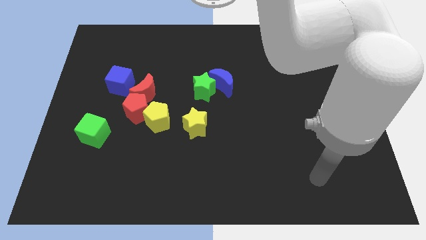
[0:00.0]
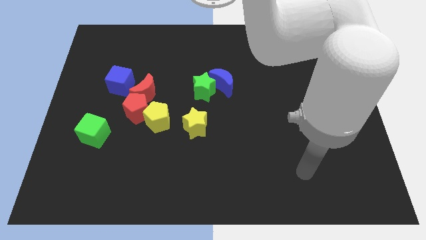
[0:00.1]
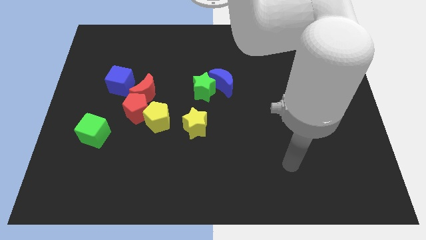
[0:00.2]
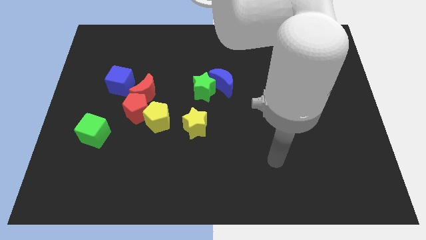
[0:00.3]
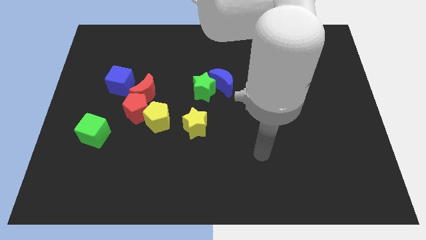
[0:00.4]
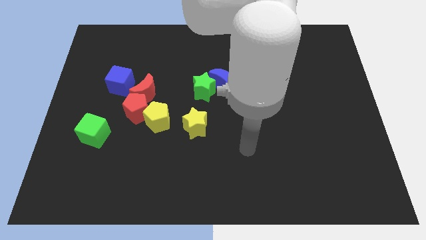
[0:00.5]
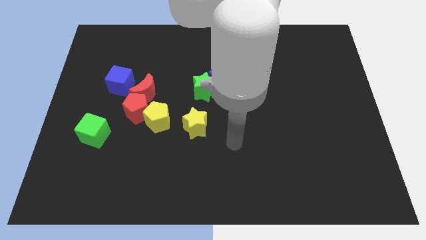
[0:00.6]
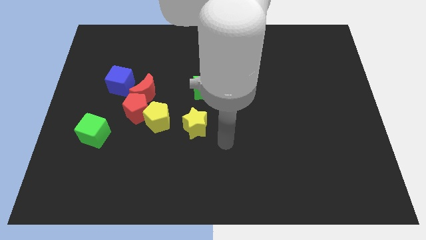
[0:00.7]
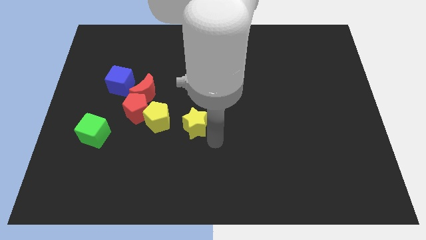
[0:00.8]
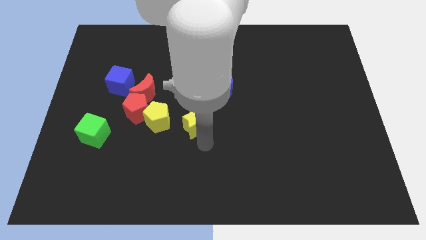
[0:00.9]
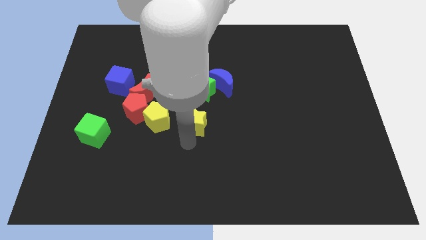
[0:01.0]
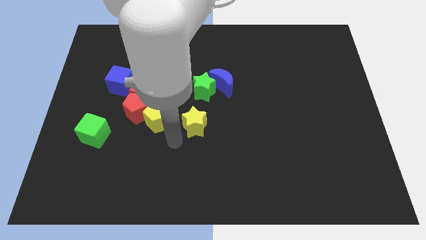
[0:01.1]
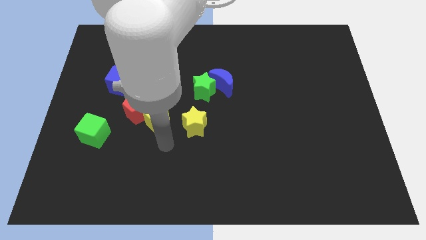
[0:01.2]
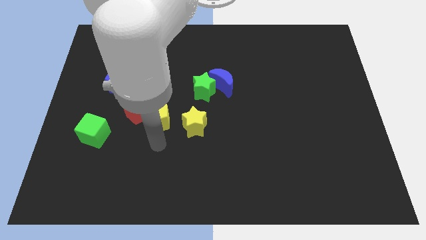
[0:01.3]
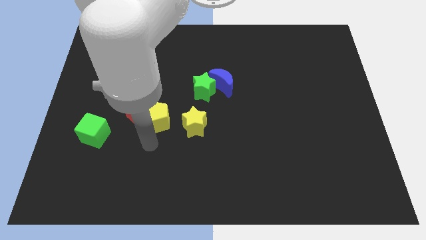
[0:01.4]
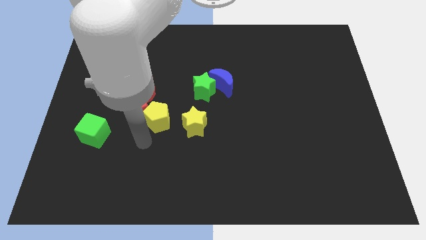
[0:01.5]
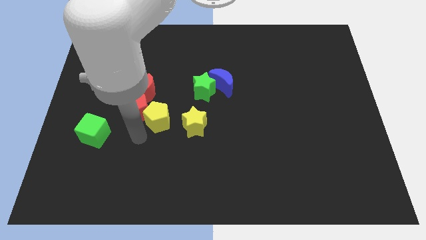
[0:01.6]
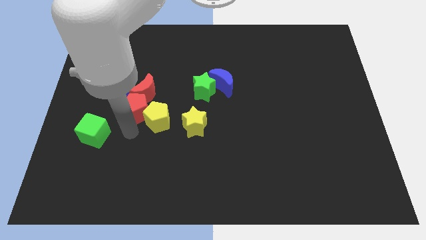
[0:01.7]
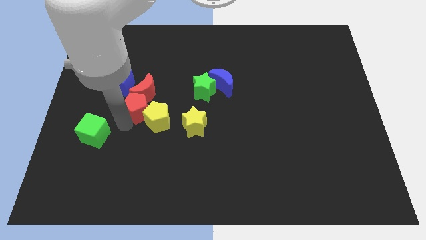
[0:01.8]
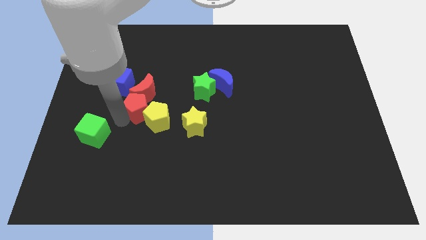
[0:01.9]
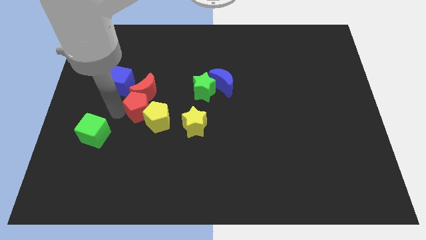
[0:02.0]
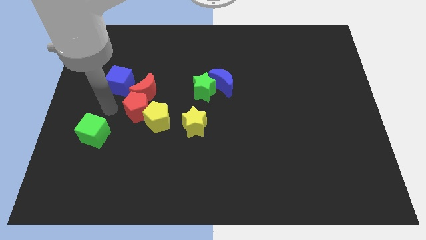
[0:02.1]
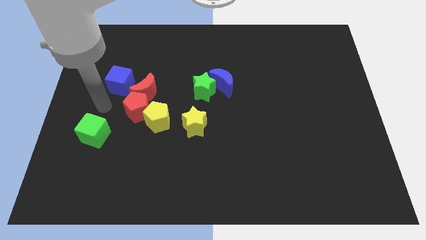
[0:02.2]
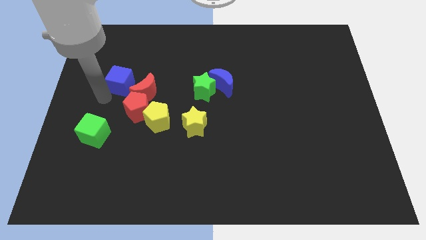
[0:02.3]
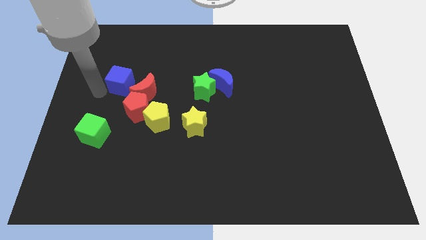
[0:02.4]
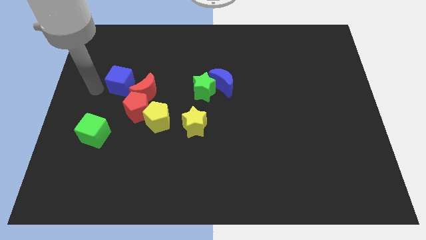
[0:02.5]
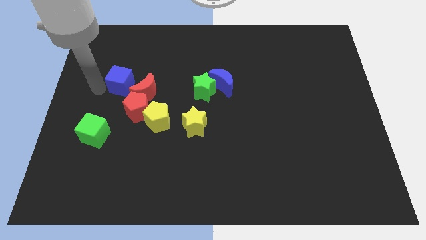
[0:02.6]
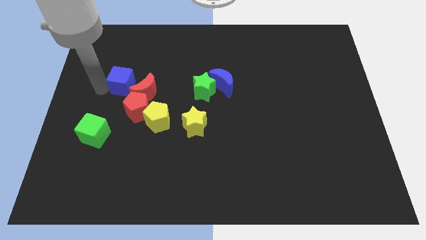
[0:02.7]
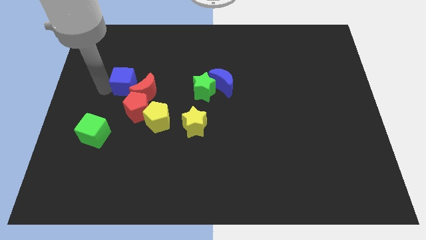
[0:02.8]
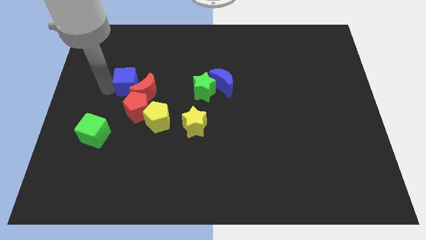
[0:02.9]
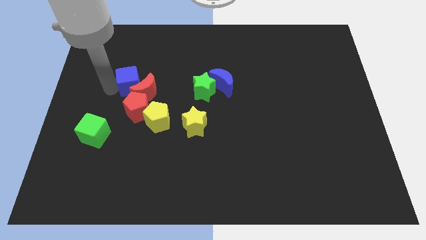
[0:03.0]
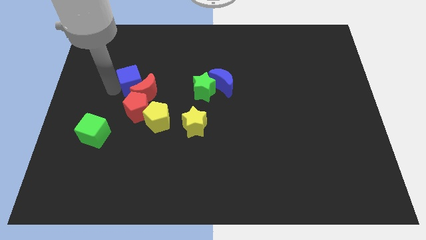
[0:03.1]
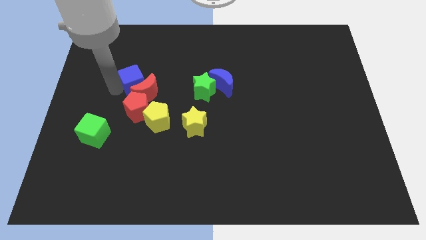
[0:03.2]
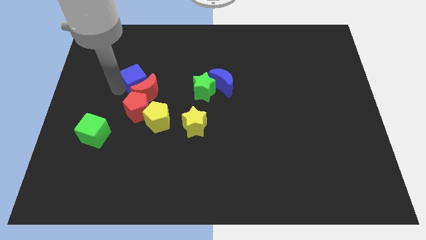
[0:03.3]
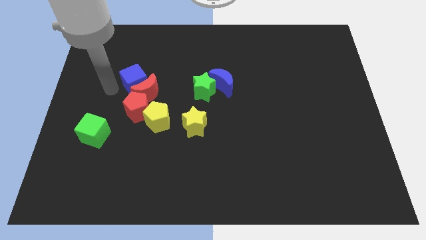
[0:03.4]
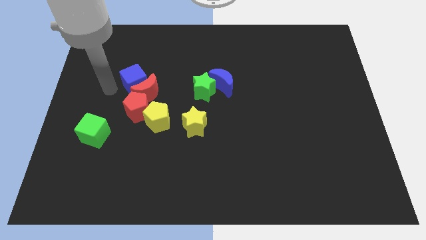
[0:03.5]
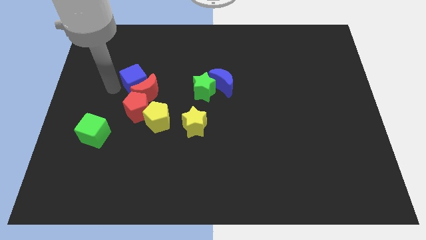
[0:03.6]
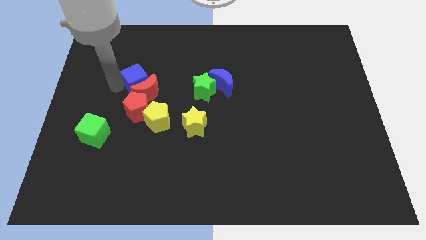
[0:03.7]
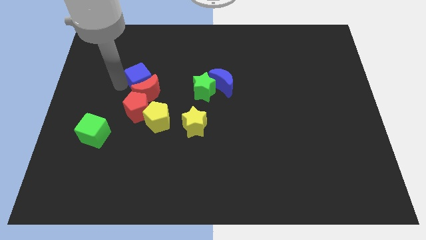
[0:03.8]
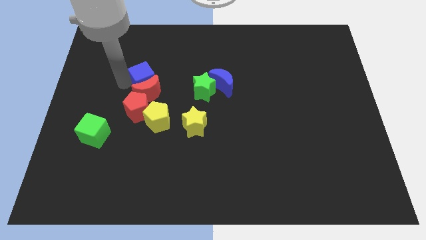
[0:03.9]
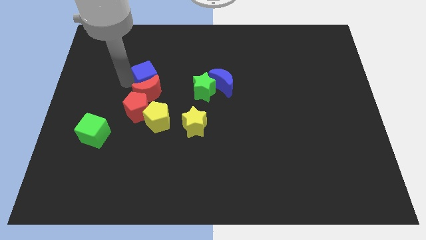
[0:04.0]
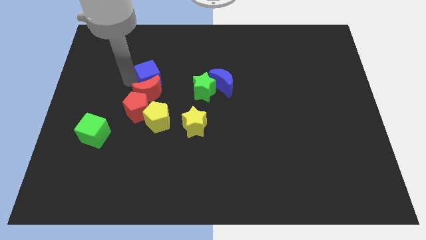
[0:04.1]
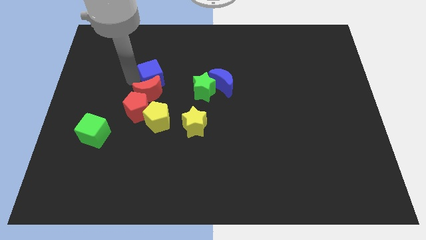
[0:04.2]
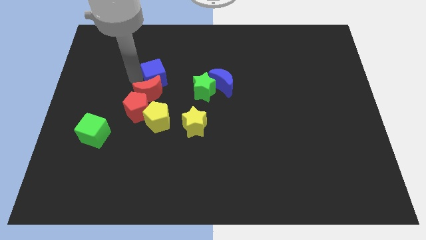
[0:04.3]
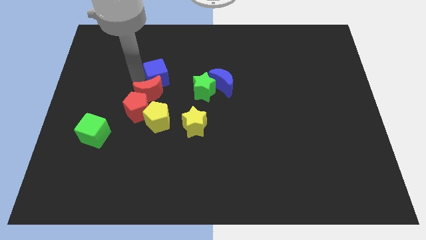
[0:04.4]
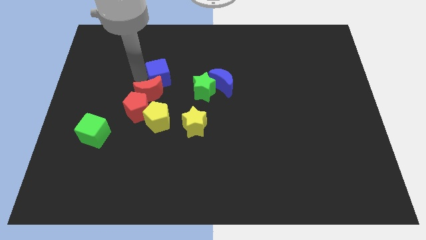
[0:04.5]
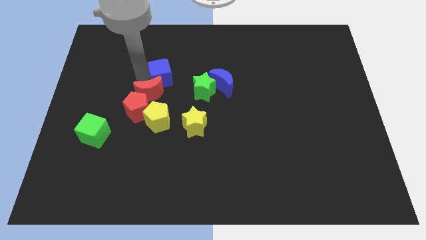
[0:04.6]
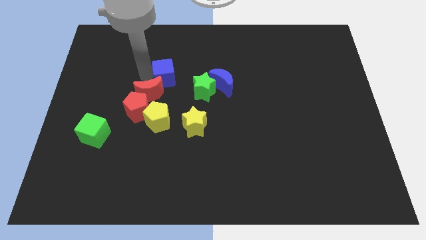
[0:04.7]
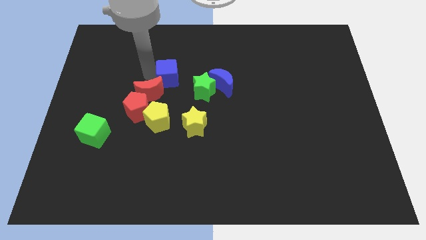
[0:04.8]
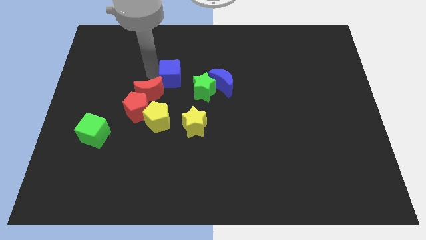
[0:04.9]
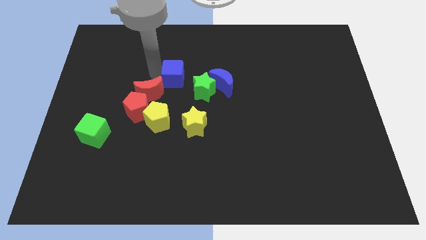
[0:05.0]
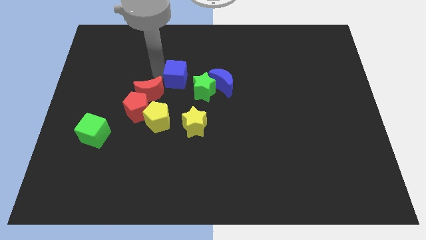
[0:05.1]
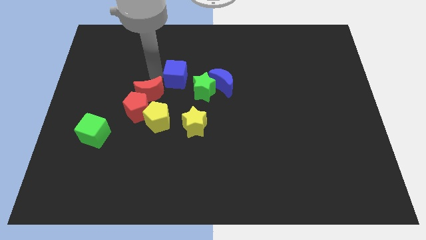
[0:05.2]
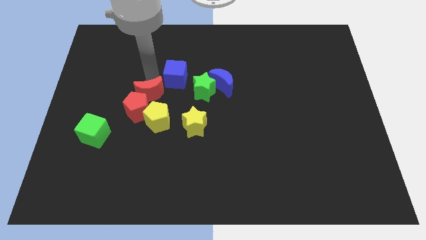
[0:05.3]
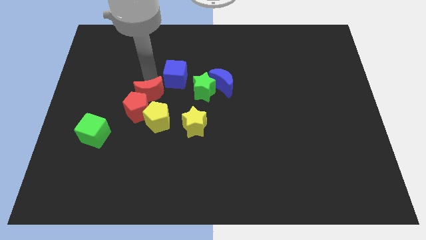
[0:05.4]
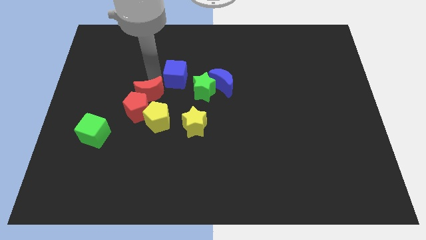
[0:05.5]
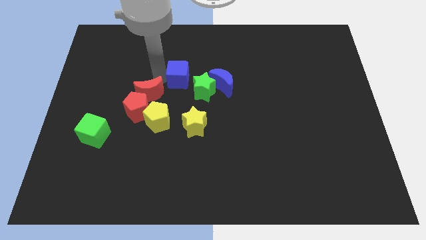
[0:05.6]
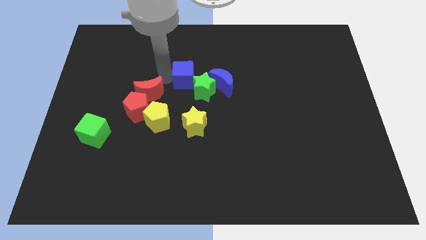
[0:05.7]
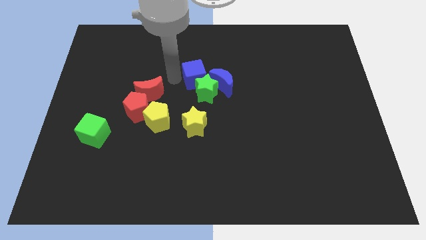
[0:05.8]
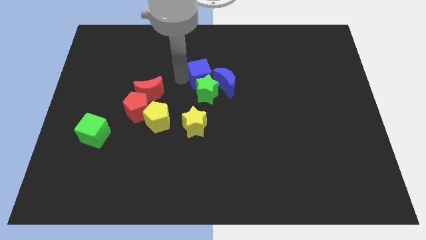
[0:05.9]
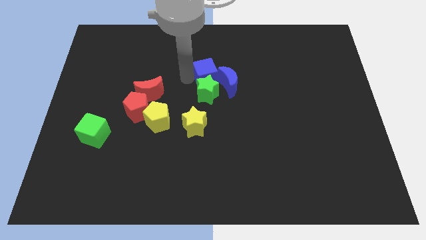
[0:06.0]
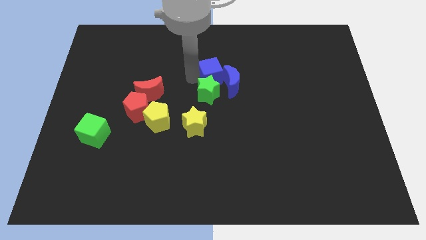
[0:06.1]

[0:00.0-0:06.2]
push the blue cube next to the blue moon

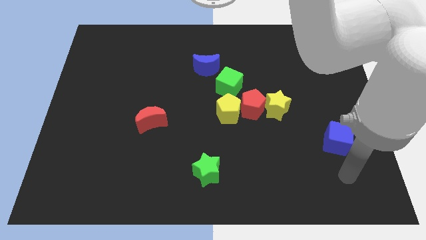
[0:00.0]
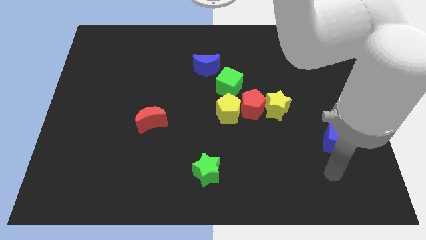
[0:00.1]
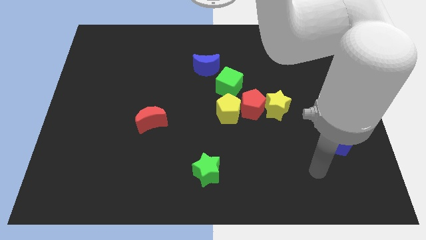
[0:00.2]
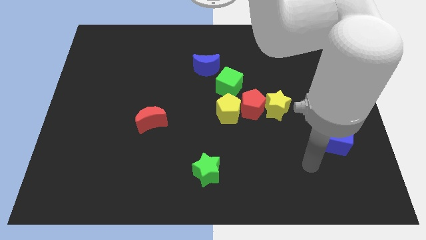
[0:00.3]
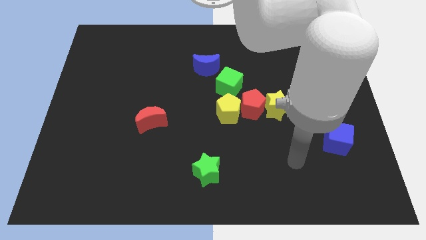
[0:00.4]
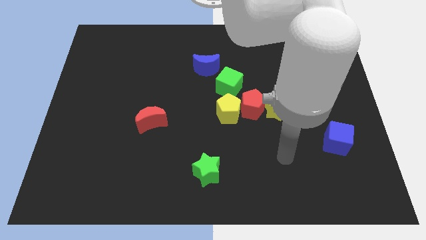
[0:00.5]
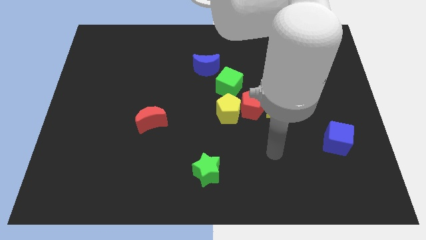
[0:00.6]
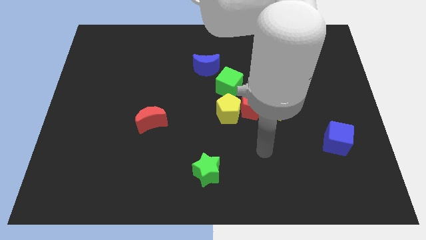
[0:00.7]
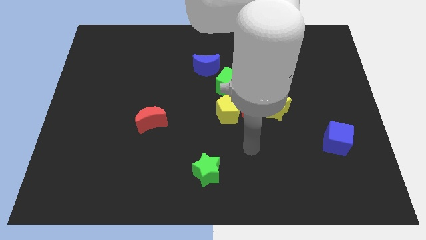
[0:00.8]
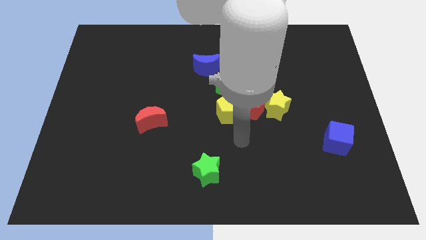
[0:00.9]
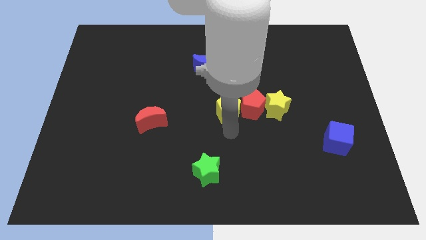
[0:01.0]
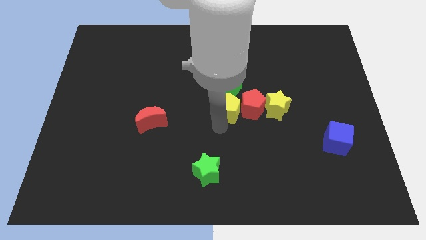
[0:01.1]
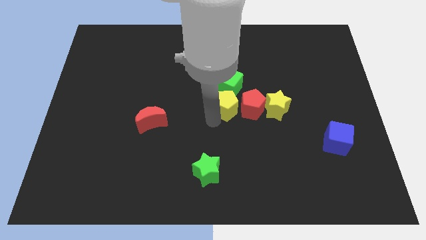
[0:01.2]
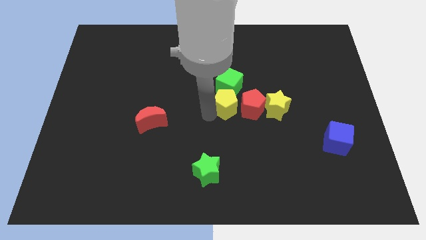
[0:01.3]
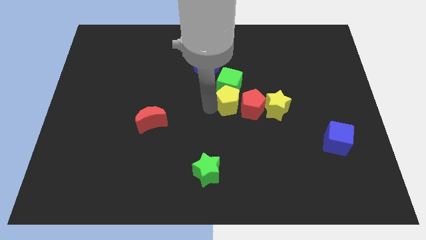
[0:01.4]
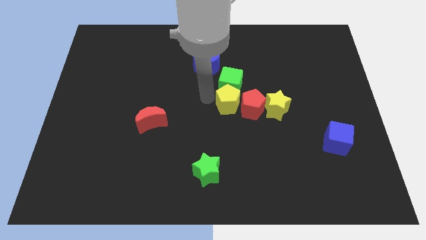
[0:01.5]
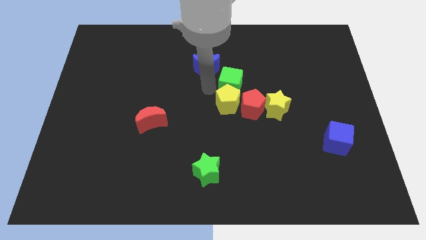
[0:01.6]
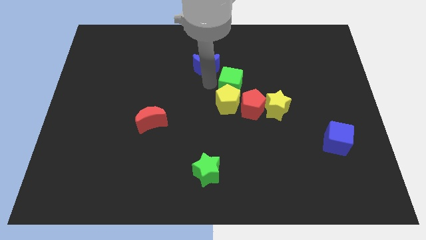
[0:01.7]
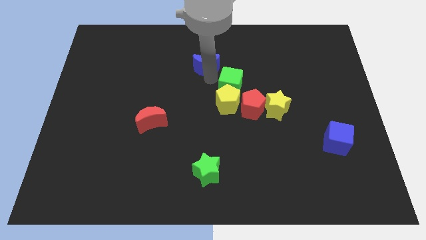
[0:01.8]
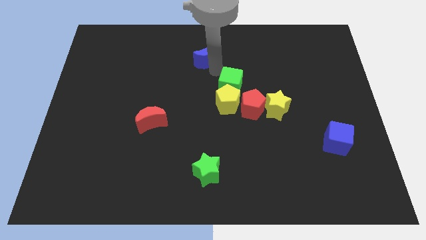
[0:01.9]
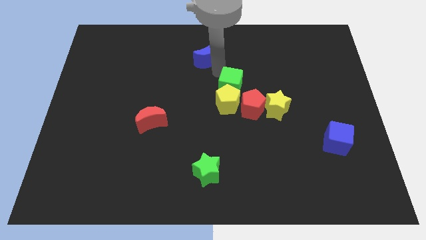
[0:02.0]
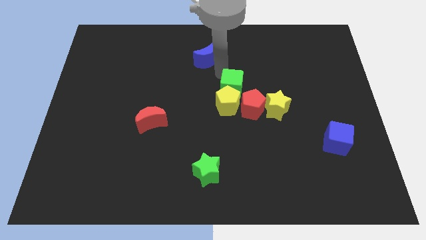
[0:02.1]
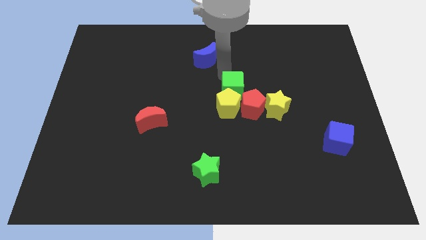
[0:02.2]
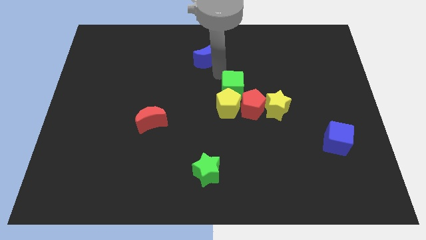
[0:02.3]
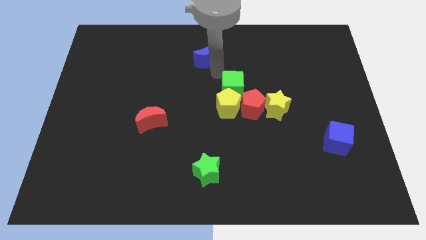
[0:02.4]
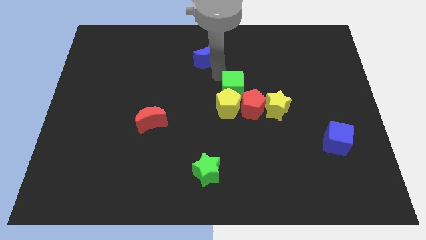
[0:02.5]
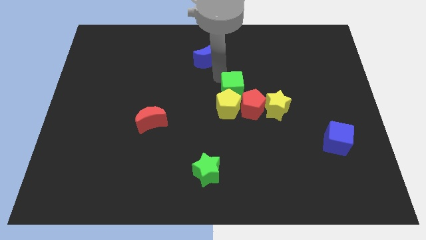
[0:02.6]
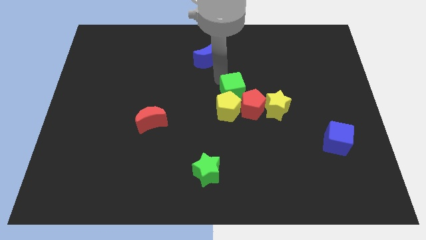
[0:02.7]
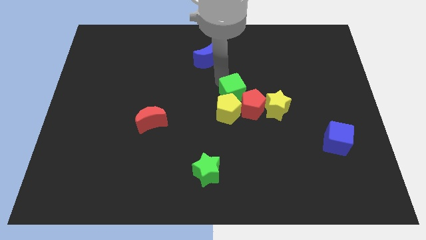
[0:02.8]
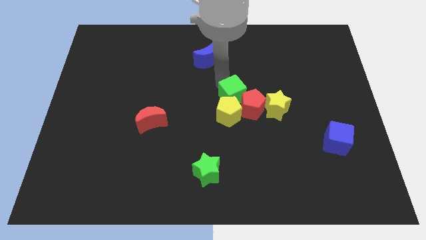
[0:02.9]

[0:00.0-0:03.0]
slide the green cube towards the red pentagon
